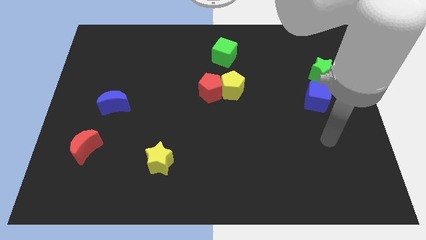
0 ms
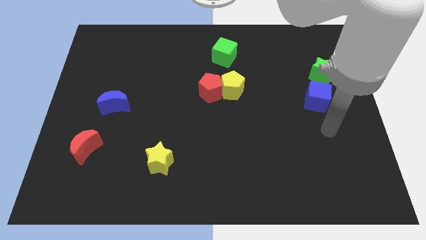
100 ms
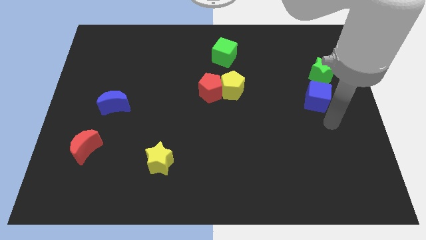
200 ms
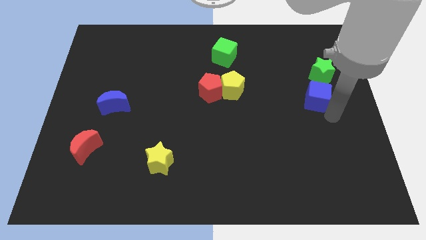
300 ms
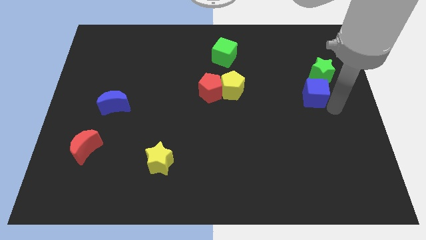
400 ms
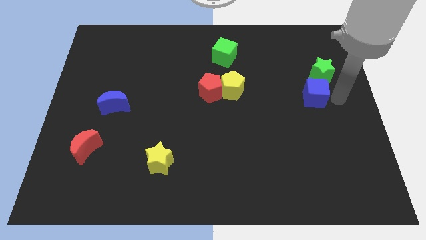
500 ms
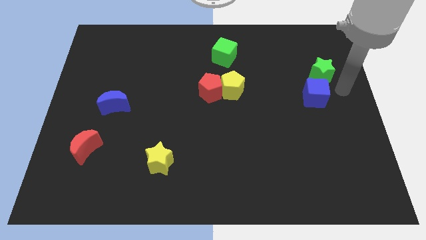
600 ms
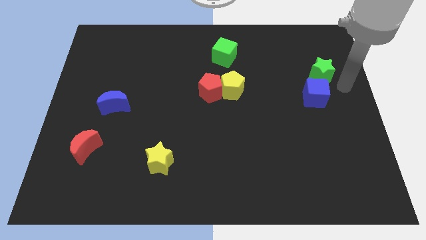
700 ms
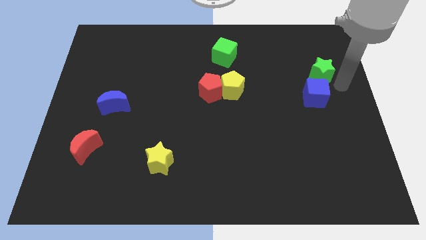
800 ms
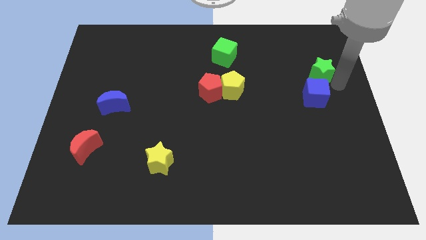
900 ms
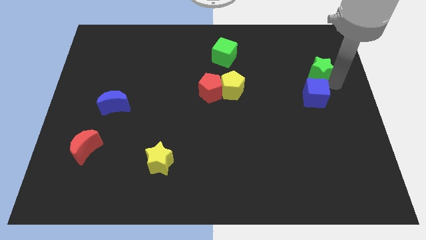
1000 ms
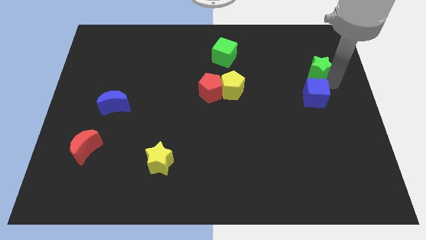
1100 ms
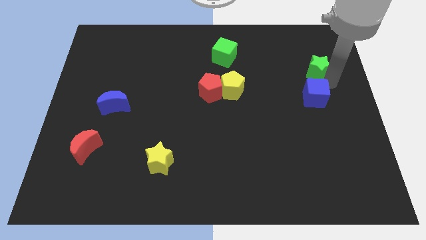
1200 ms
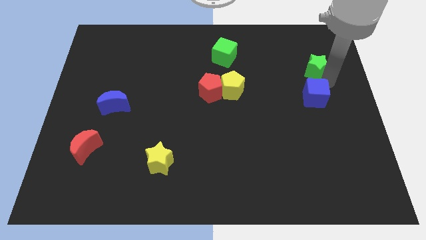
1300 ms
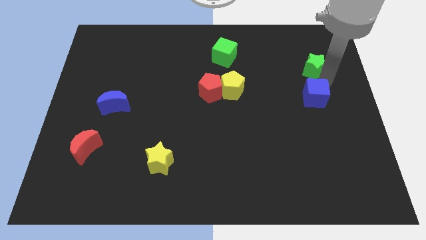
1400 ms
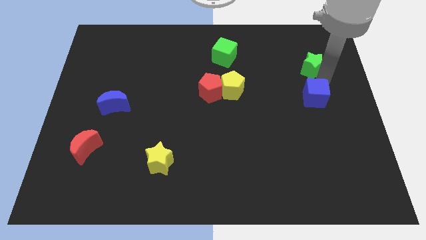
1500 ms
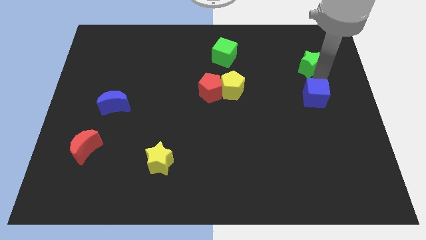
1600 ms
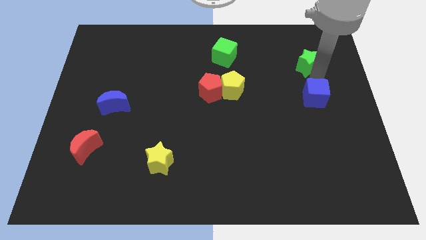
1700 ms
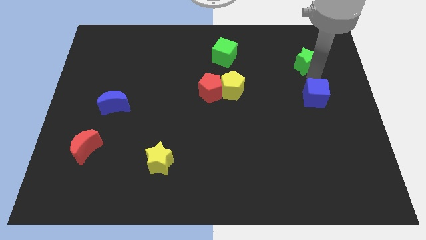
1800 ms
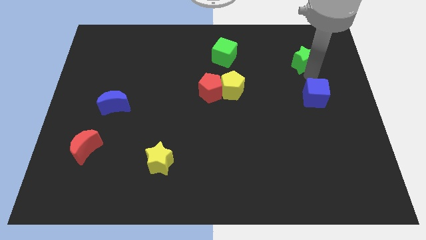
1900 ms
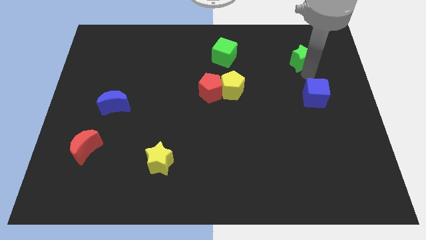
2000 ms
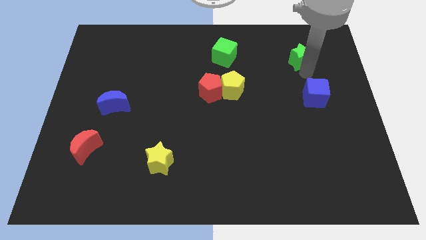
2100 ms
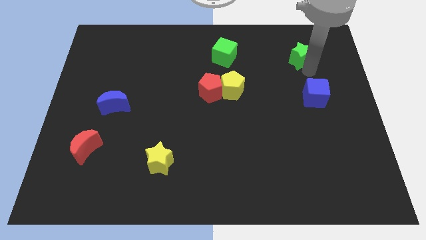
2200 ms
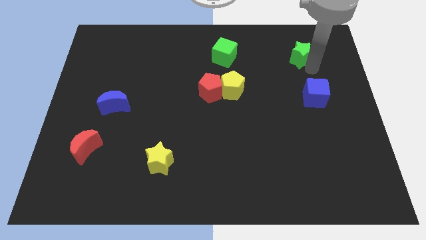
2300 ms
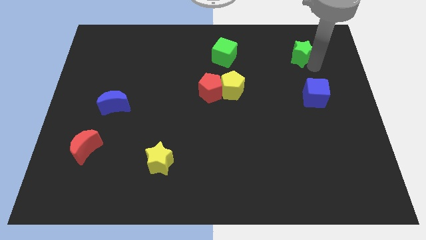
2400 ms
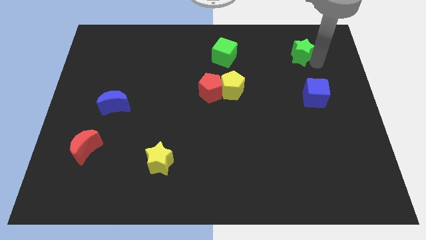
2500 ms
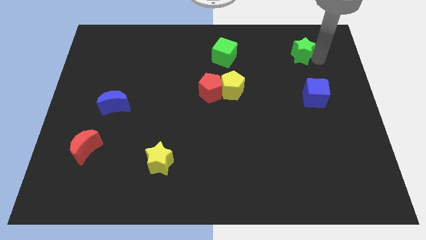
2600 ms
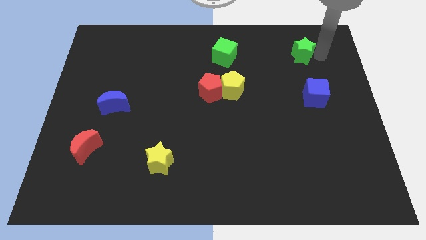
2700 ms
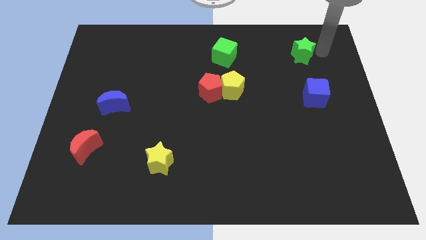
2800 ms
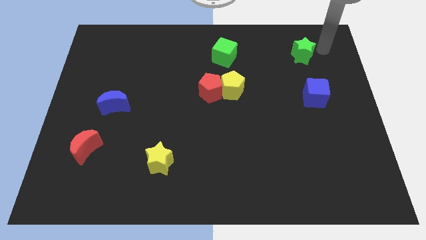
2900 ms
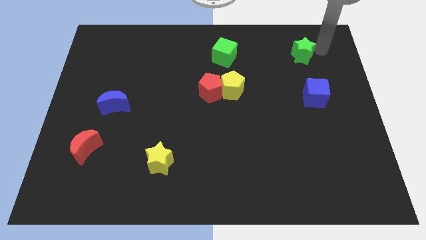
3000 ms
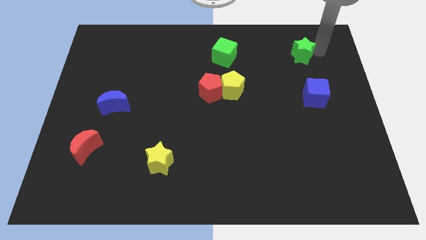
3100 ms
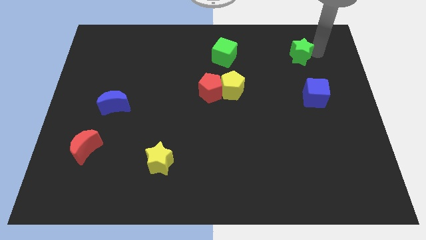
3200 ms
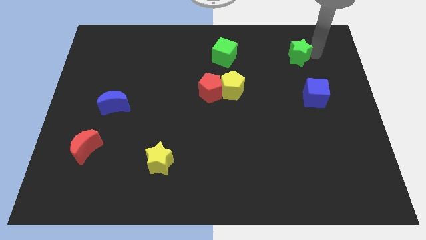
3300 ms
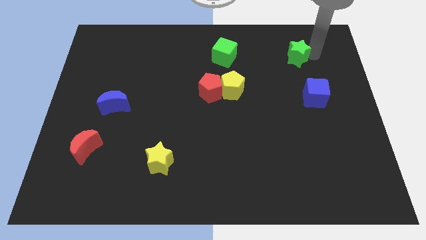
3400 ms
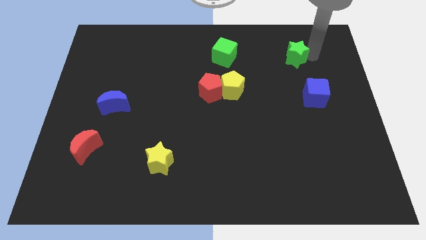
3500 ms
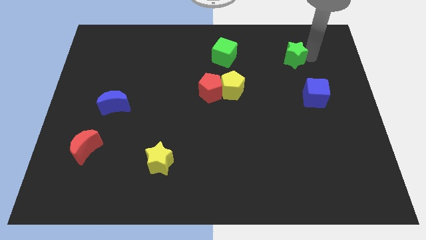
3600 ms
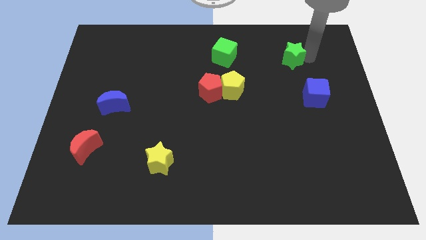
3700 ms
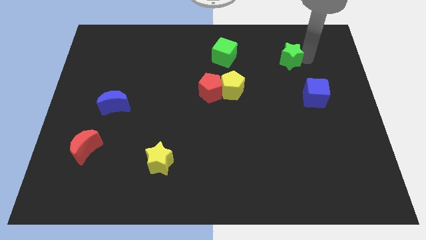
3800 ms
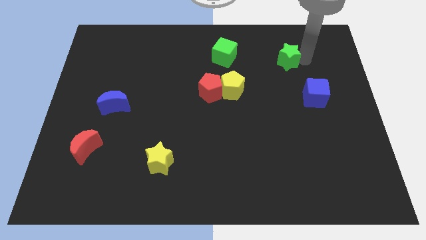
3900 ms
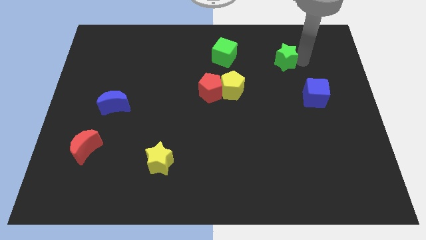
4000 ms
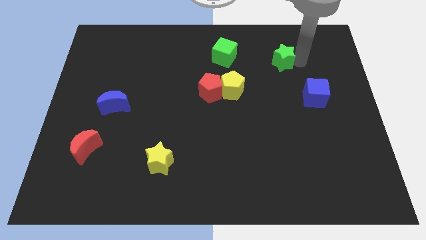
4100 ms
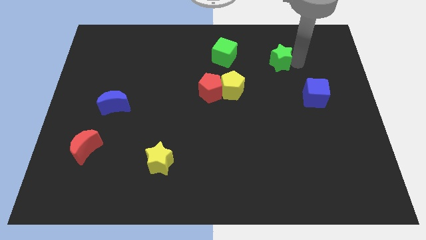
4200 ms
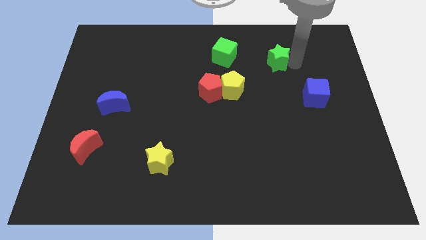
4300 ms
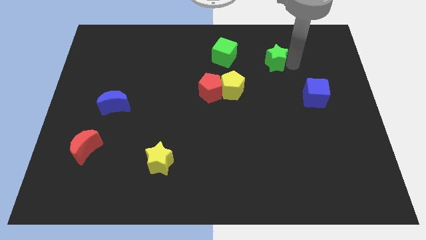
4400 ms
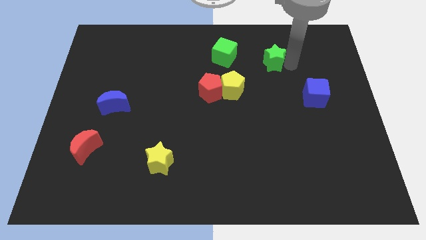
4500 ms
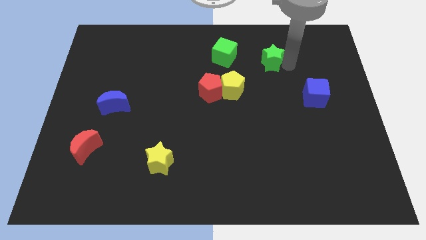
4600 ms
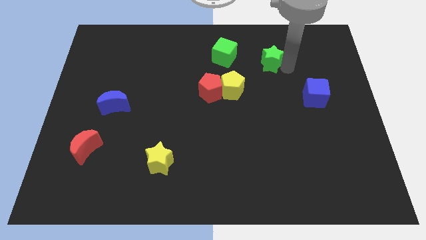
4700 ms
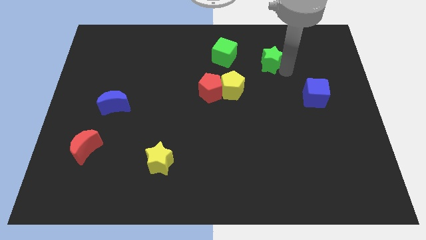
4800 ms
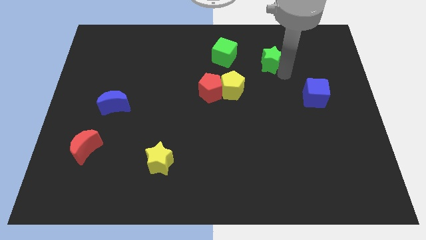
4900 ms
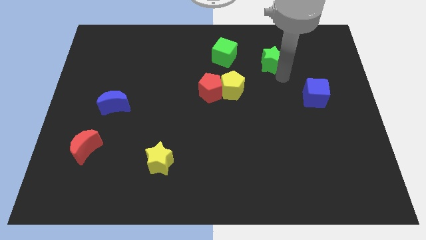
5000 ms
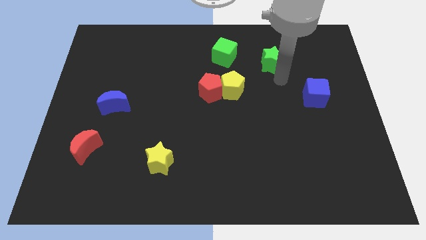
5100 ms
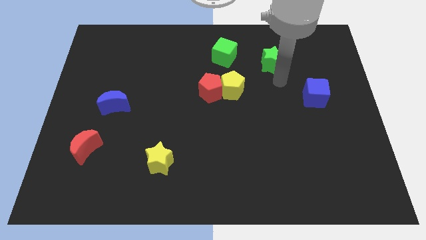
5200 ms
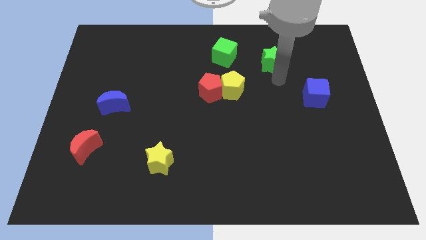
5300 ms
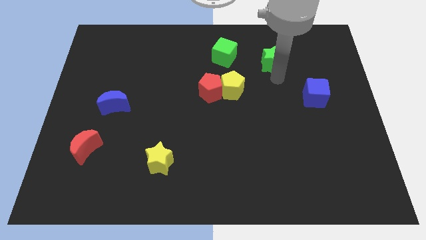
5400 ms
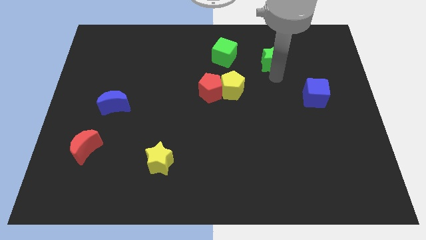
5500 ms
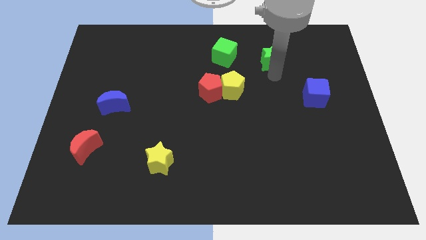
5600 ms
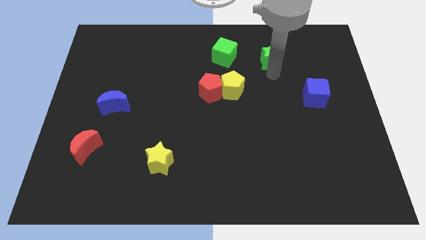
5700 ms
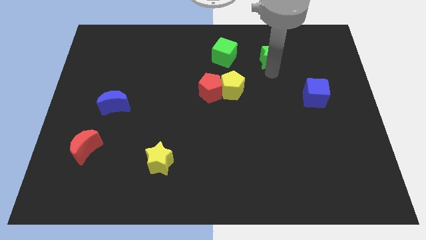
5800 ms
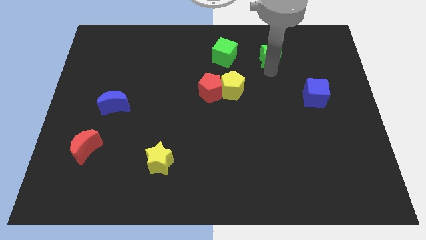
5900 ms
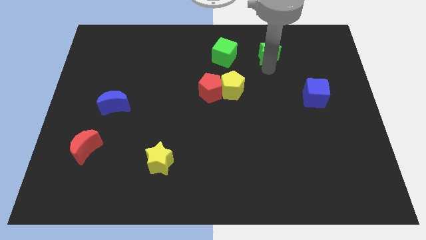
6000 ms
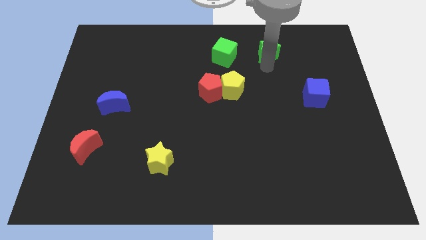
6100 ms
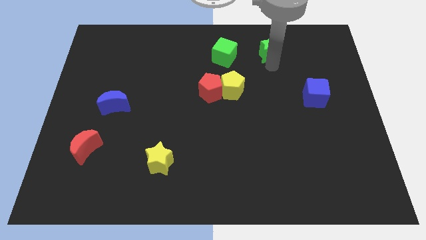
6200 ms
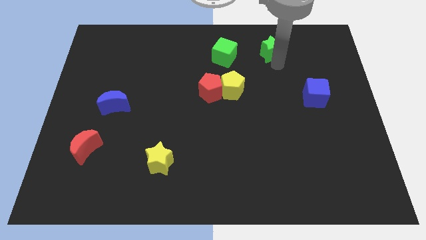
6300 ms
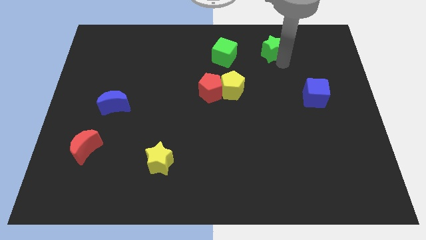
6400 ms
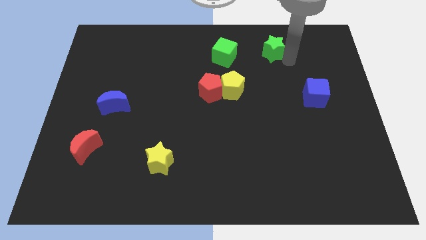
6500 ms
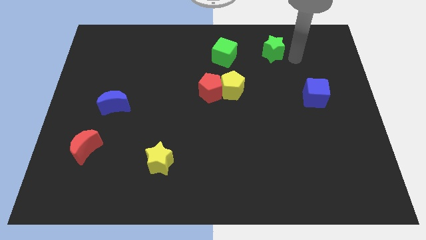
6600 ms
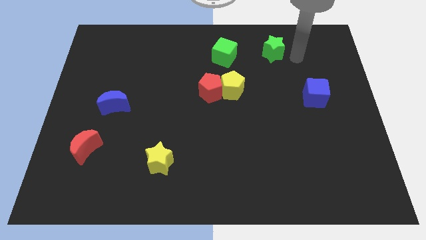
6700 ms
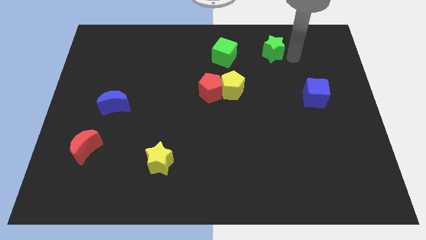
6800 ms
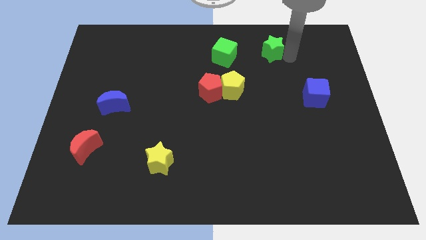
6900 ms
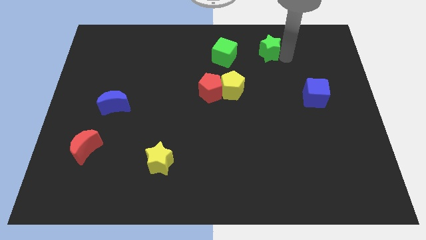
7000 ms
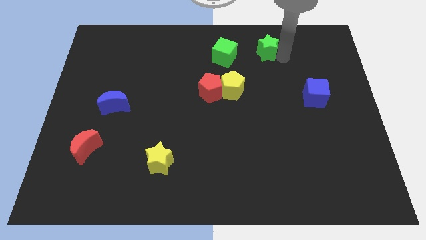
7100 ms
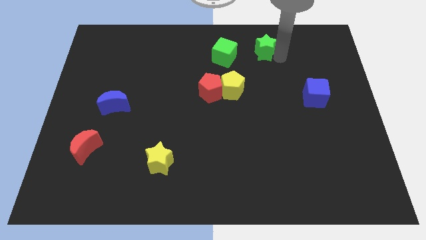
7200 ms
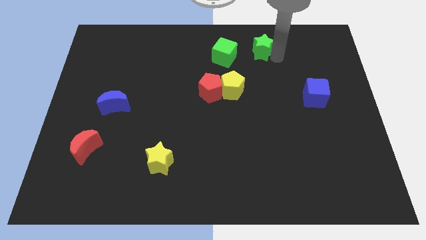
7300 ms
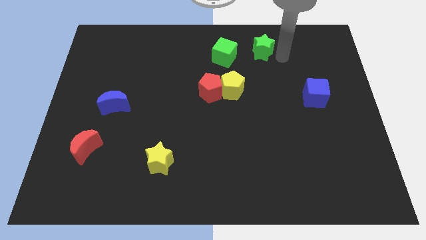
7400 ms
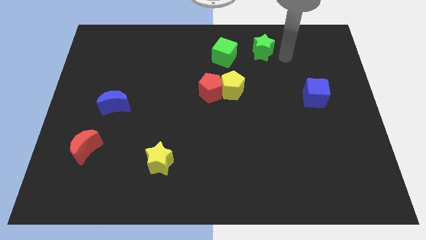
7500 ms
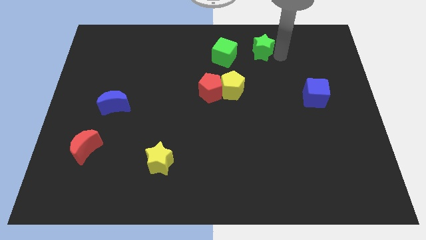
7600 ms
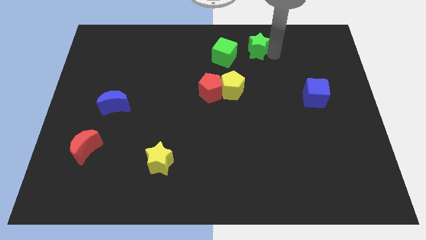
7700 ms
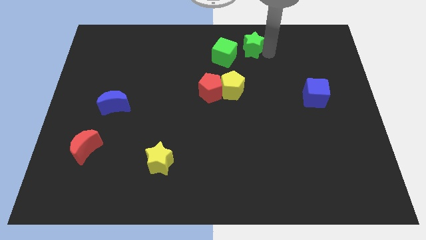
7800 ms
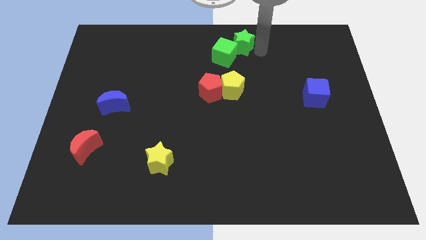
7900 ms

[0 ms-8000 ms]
move the green star to the top side
